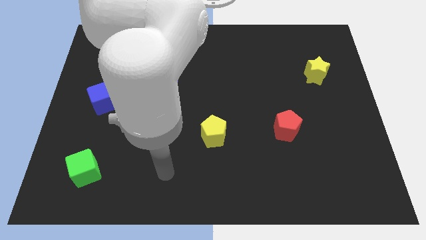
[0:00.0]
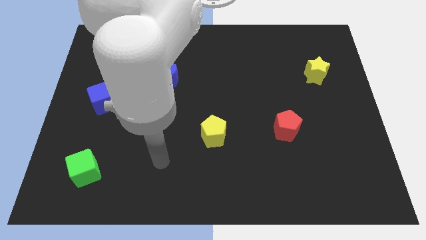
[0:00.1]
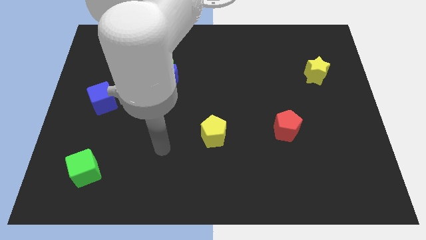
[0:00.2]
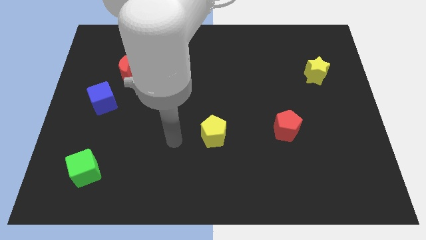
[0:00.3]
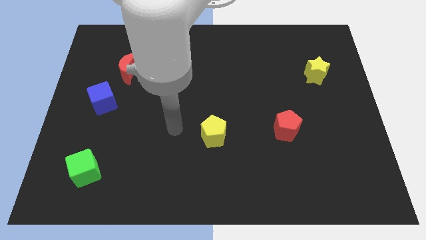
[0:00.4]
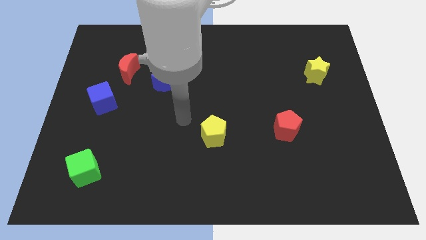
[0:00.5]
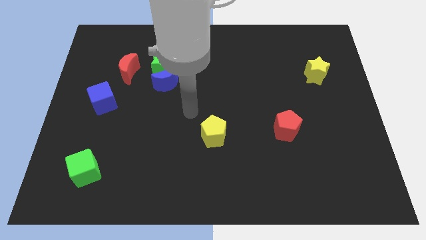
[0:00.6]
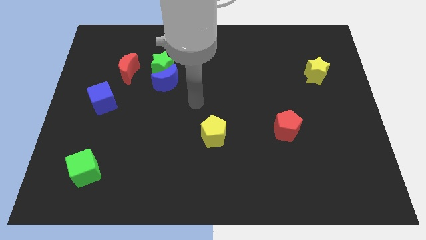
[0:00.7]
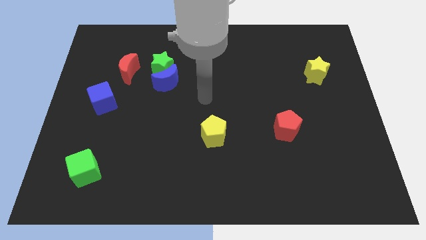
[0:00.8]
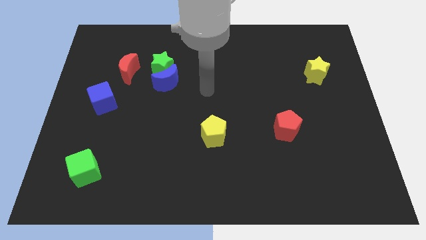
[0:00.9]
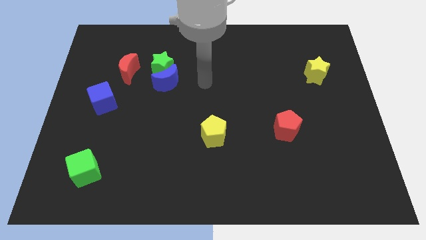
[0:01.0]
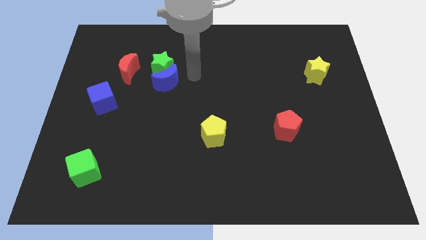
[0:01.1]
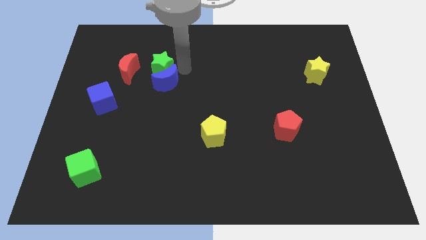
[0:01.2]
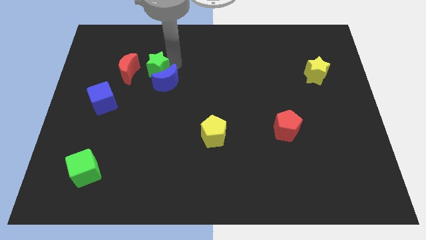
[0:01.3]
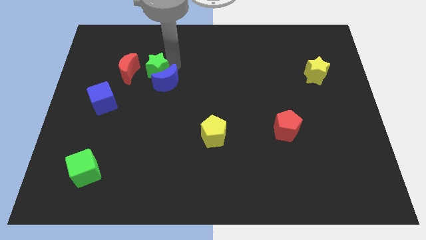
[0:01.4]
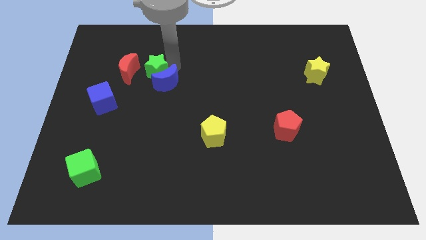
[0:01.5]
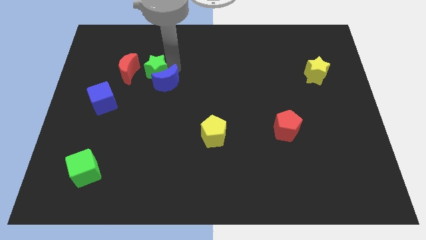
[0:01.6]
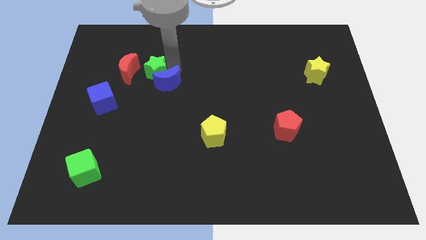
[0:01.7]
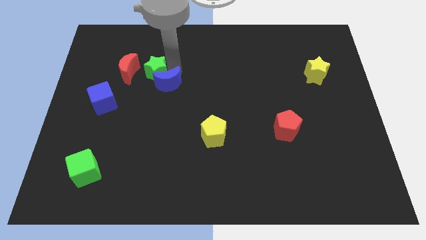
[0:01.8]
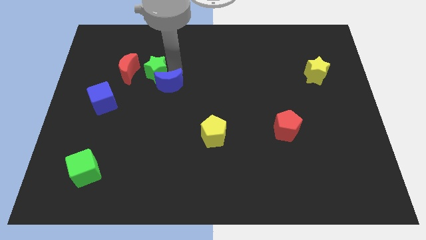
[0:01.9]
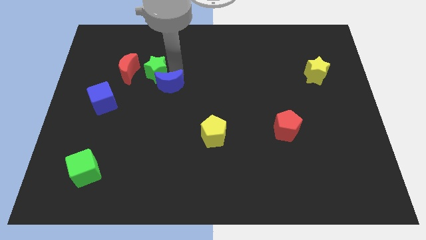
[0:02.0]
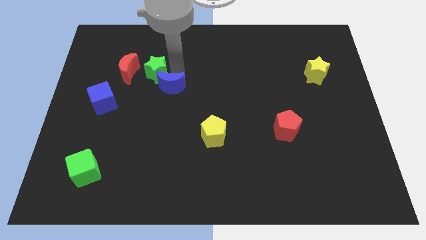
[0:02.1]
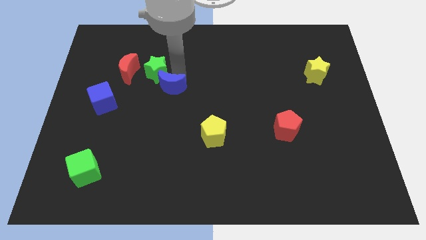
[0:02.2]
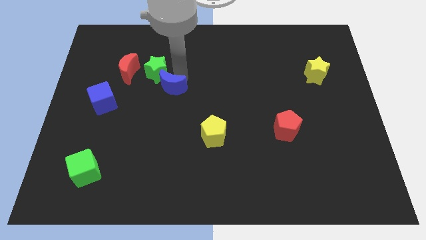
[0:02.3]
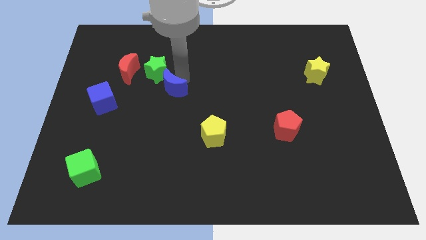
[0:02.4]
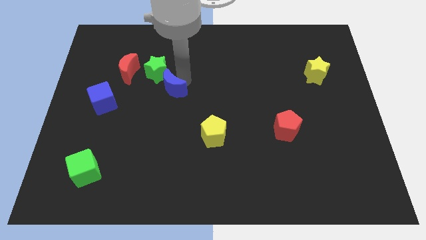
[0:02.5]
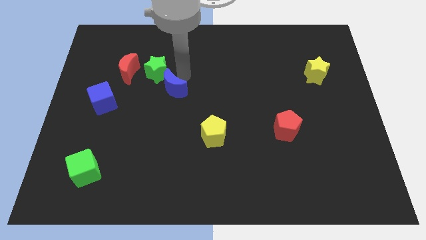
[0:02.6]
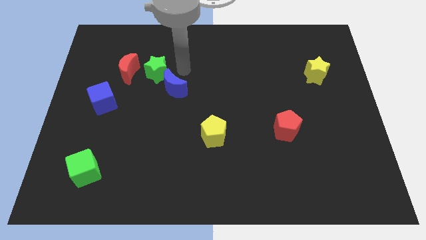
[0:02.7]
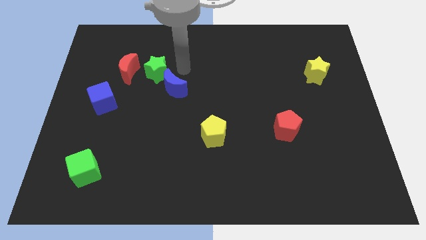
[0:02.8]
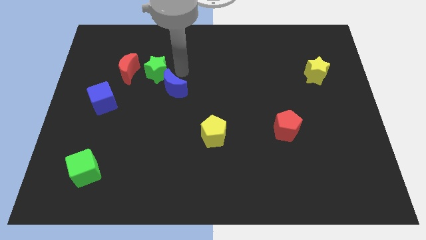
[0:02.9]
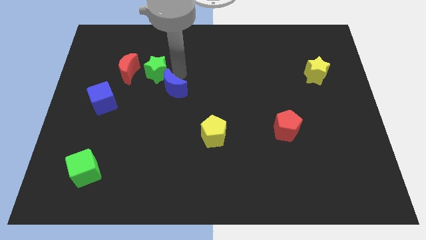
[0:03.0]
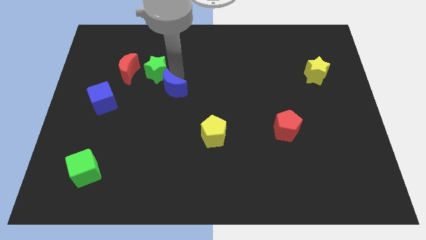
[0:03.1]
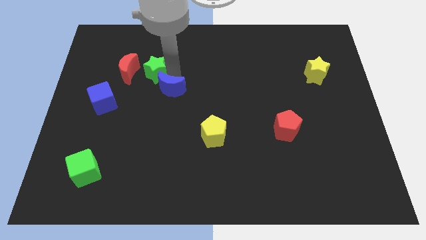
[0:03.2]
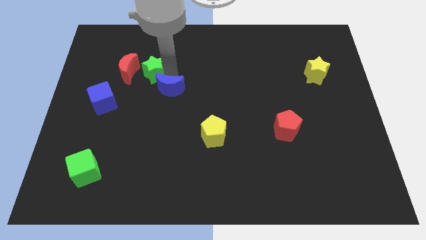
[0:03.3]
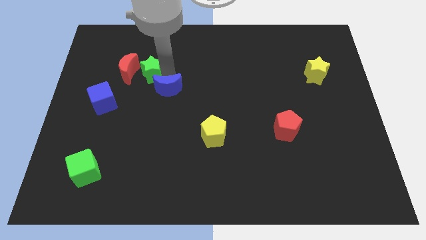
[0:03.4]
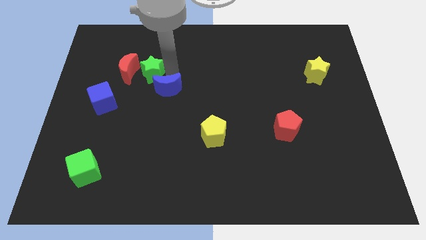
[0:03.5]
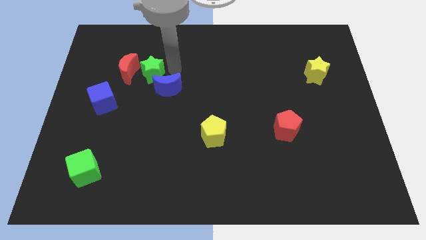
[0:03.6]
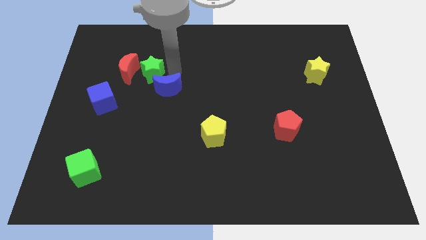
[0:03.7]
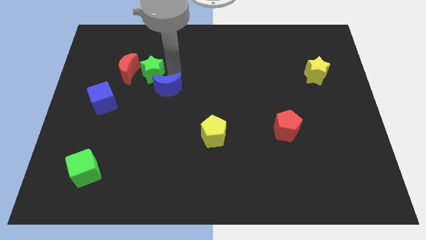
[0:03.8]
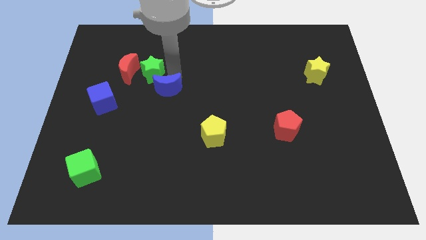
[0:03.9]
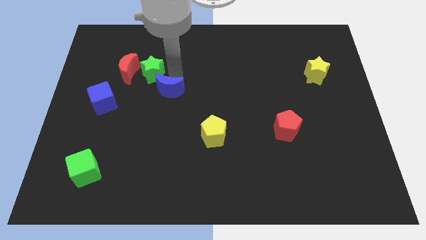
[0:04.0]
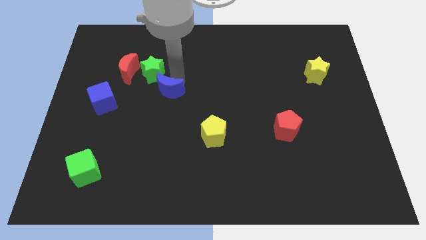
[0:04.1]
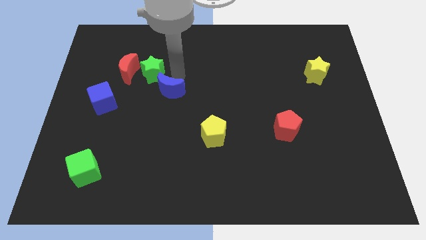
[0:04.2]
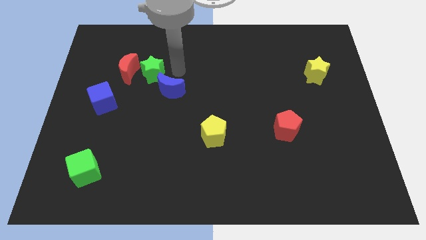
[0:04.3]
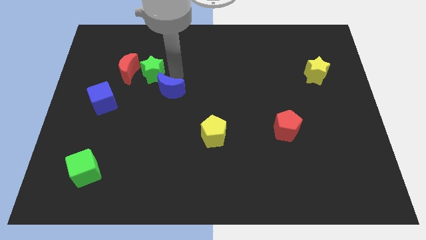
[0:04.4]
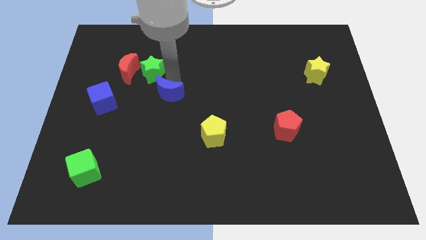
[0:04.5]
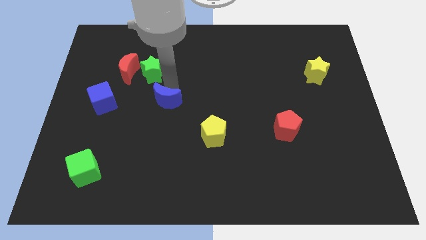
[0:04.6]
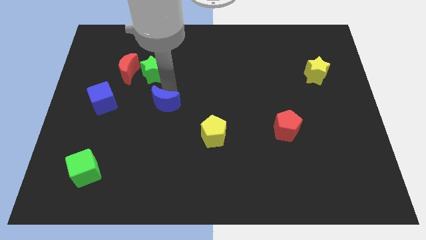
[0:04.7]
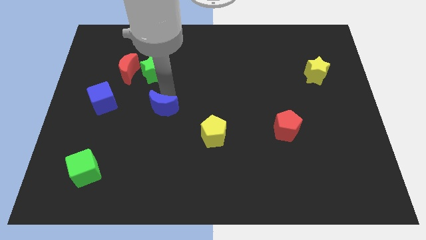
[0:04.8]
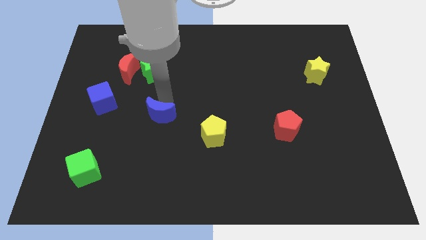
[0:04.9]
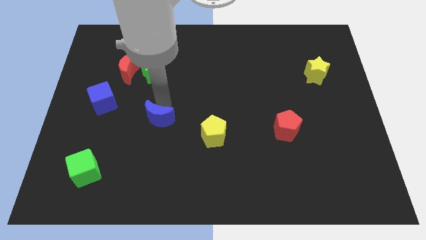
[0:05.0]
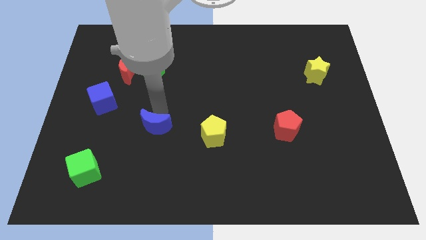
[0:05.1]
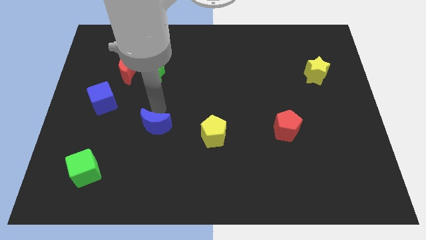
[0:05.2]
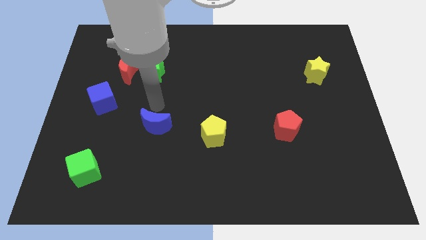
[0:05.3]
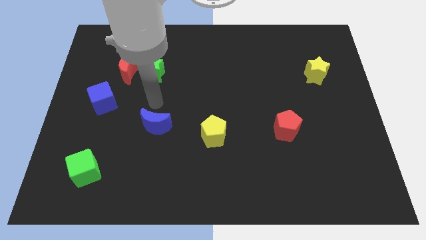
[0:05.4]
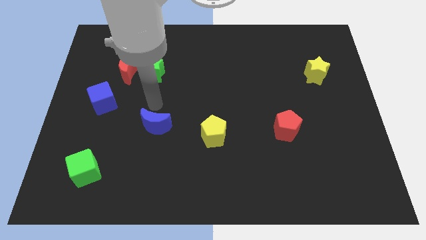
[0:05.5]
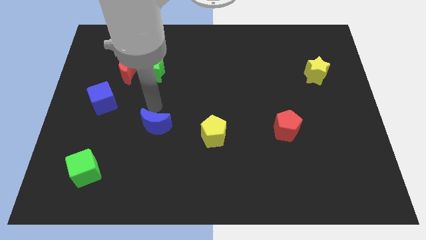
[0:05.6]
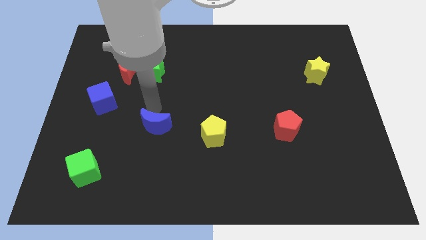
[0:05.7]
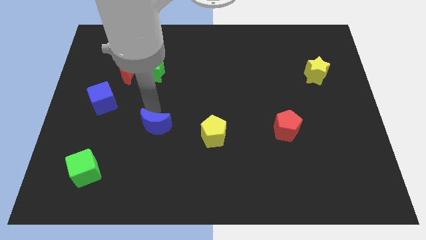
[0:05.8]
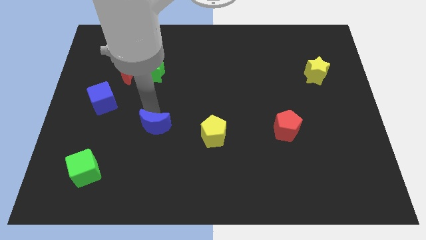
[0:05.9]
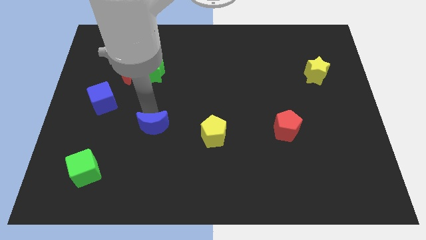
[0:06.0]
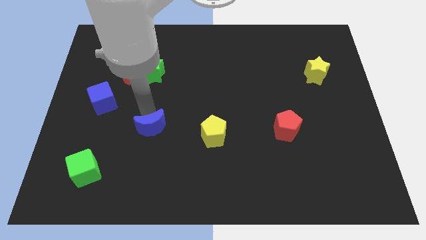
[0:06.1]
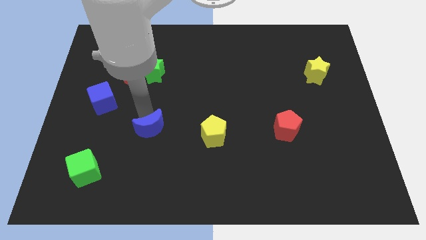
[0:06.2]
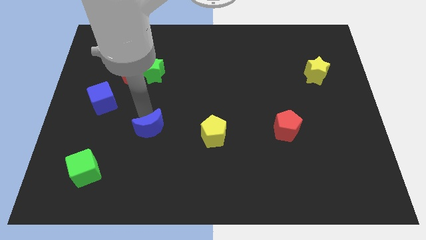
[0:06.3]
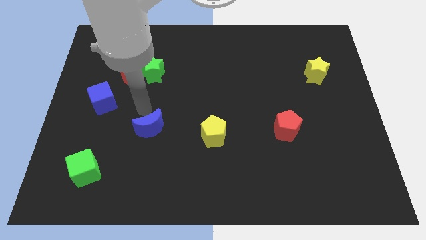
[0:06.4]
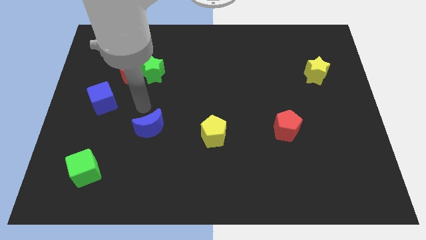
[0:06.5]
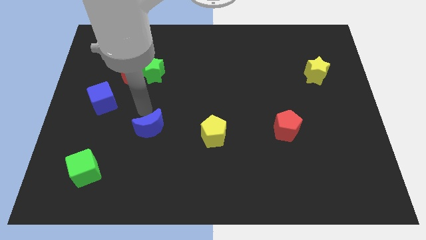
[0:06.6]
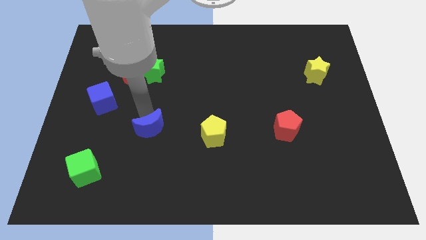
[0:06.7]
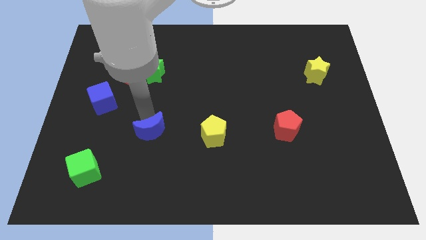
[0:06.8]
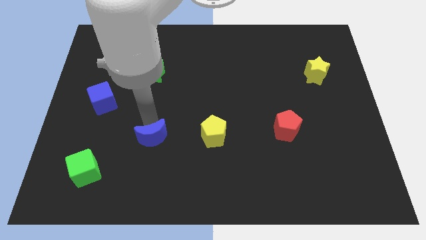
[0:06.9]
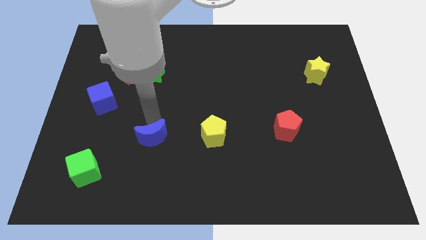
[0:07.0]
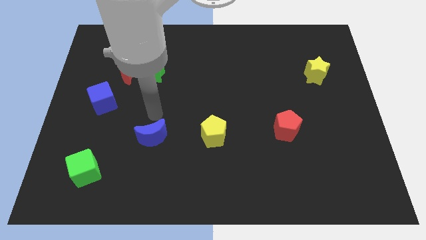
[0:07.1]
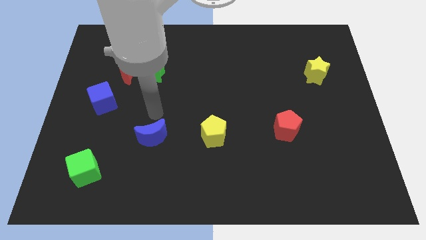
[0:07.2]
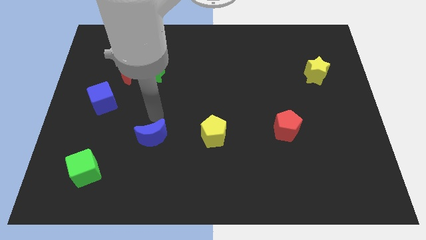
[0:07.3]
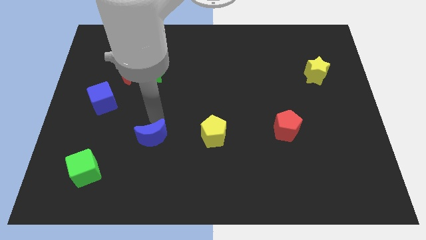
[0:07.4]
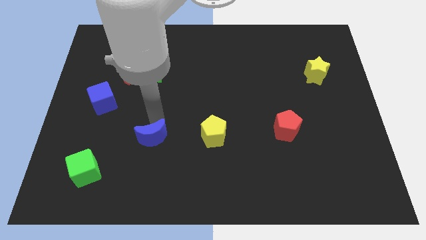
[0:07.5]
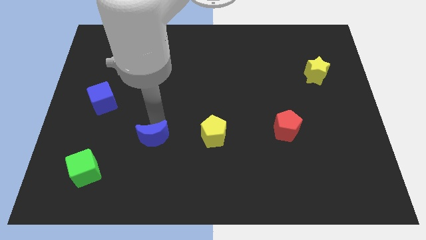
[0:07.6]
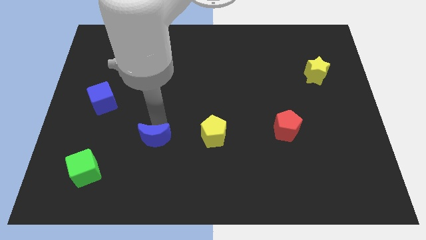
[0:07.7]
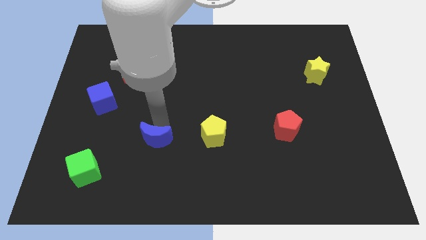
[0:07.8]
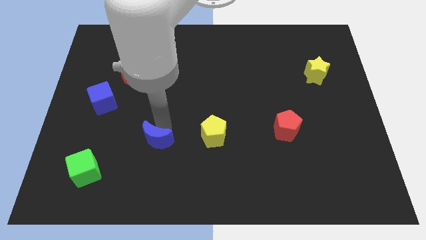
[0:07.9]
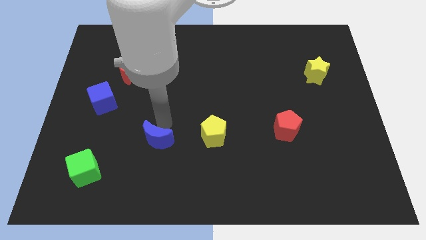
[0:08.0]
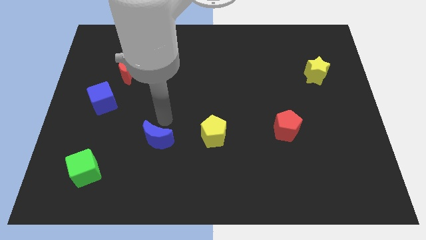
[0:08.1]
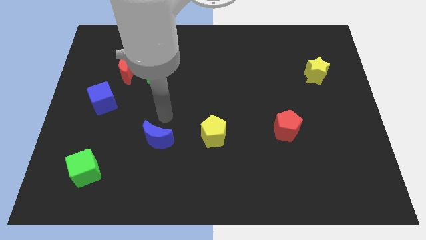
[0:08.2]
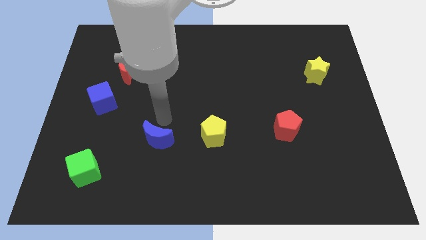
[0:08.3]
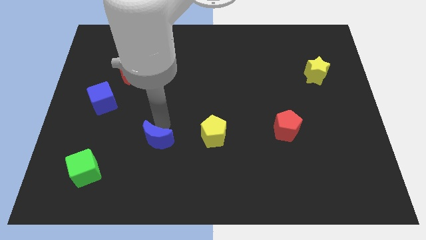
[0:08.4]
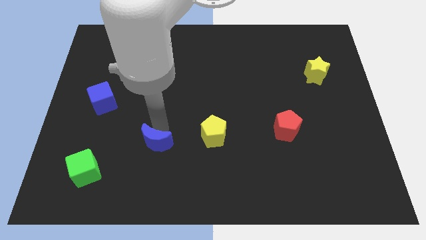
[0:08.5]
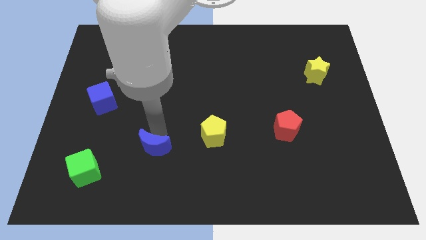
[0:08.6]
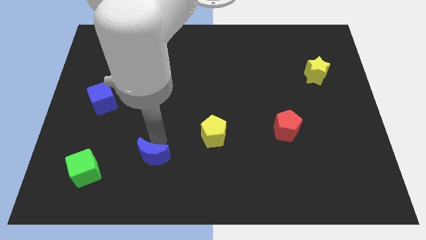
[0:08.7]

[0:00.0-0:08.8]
put the blue moon to the right of the green cube
